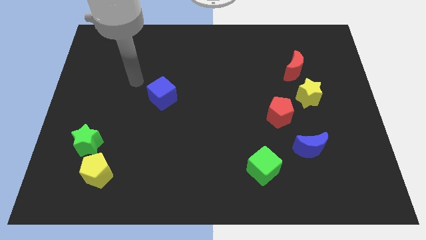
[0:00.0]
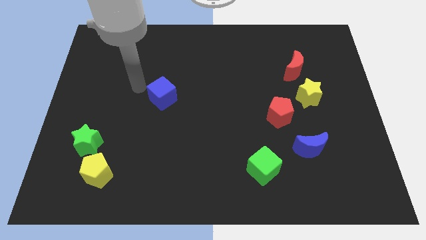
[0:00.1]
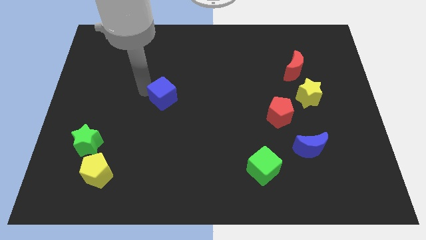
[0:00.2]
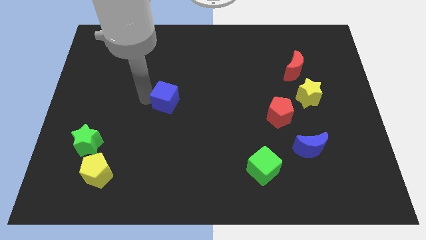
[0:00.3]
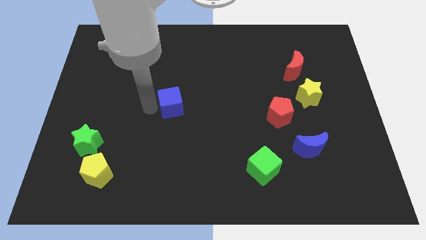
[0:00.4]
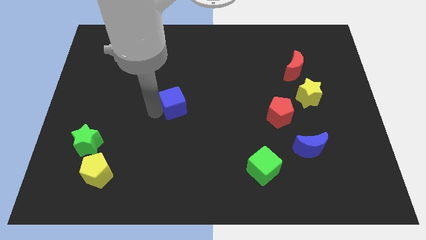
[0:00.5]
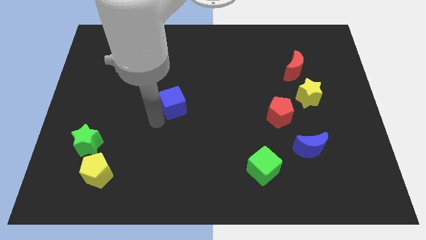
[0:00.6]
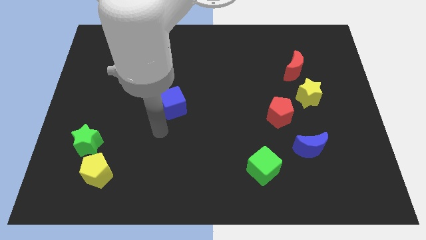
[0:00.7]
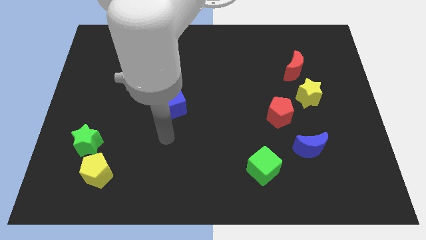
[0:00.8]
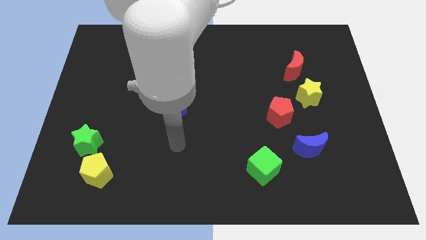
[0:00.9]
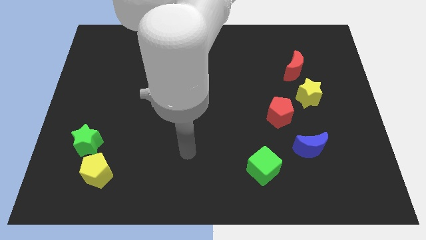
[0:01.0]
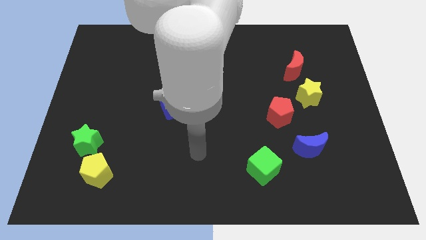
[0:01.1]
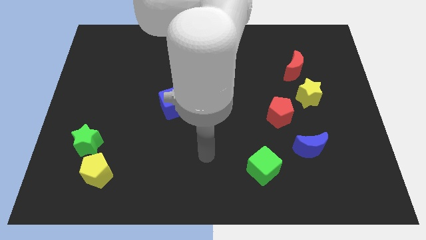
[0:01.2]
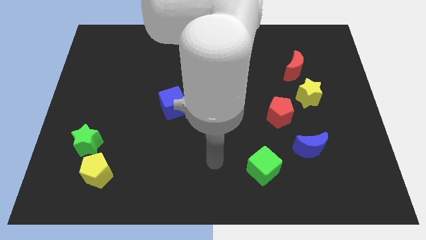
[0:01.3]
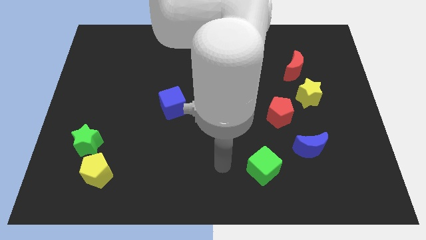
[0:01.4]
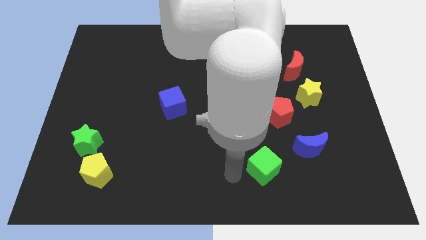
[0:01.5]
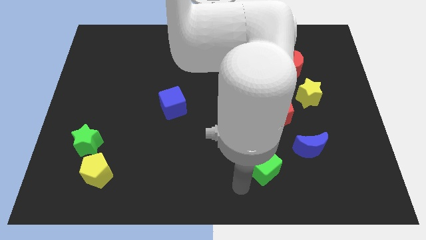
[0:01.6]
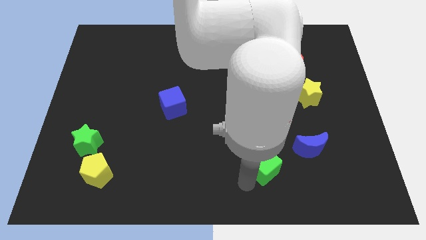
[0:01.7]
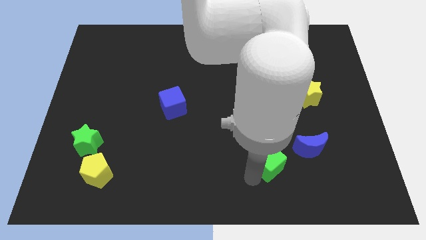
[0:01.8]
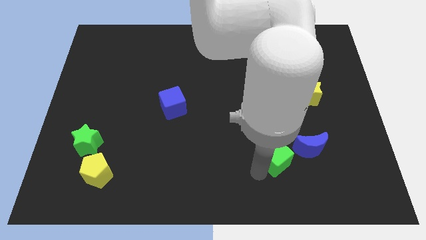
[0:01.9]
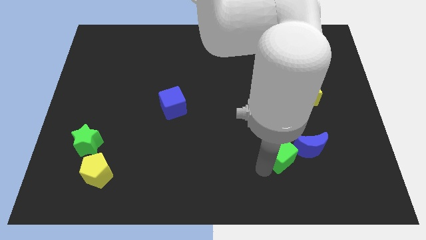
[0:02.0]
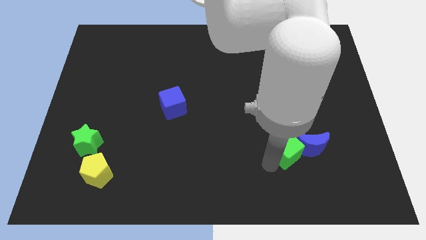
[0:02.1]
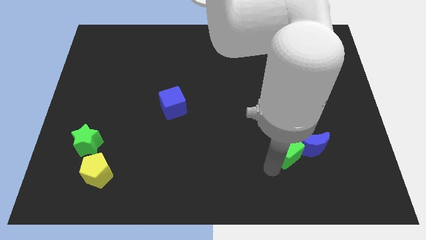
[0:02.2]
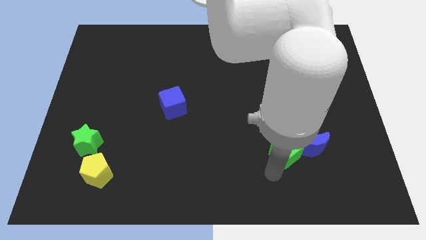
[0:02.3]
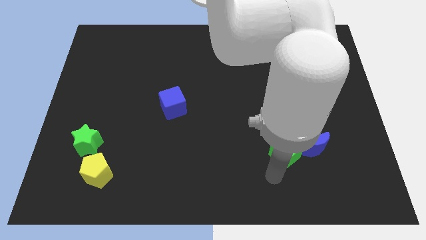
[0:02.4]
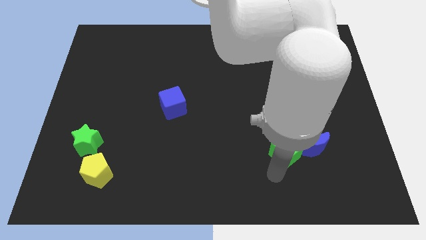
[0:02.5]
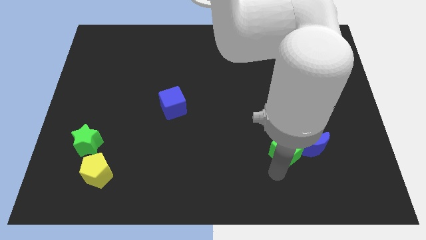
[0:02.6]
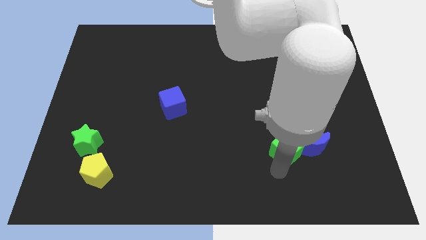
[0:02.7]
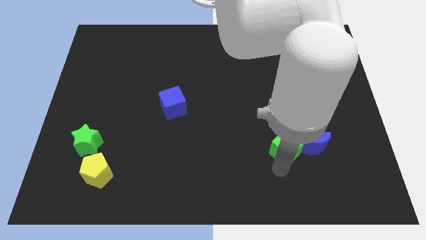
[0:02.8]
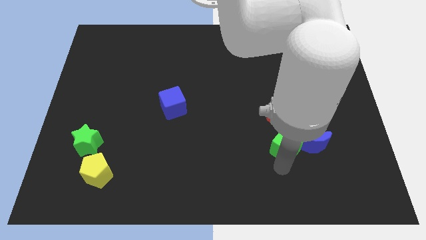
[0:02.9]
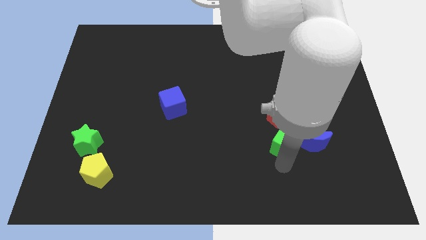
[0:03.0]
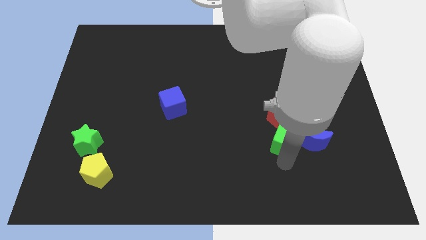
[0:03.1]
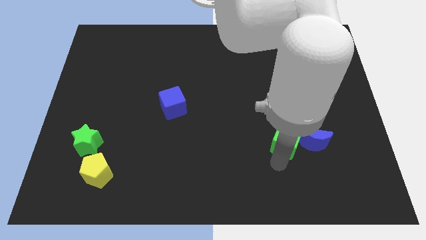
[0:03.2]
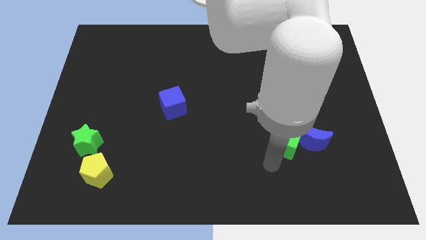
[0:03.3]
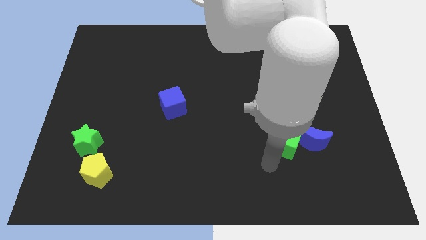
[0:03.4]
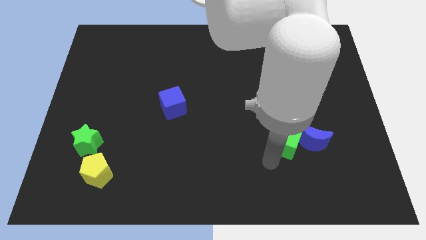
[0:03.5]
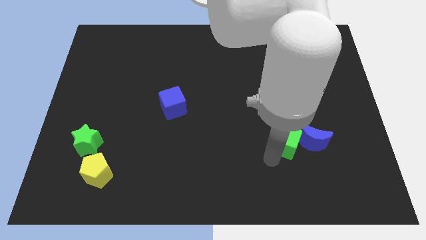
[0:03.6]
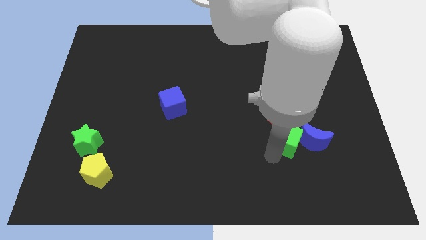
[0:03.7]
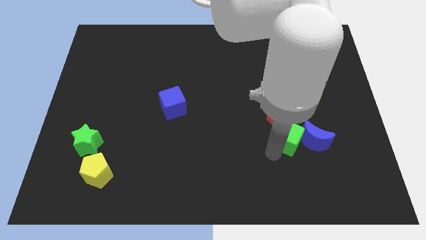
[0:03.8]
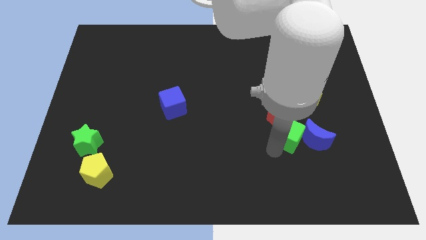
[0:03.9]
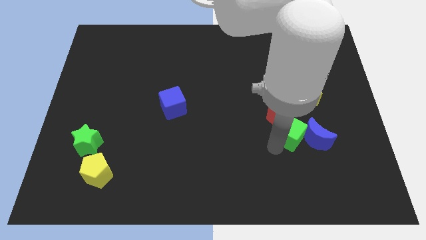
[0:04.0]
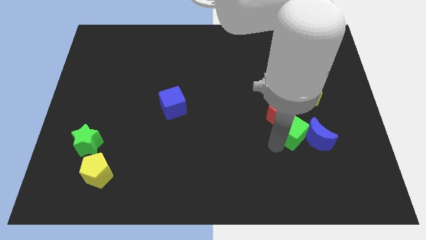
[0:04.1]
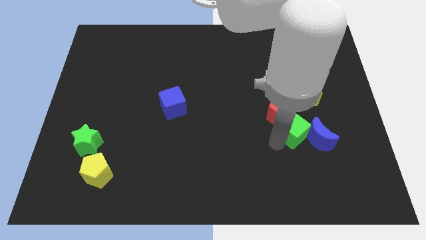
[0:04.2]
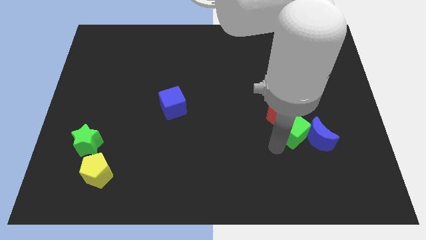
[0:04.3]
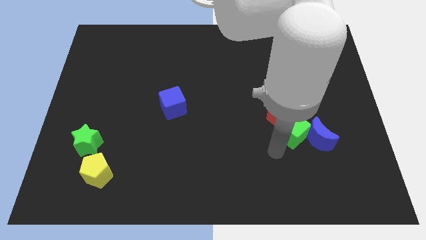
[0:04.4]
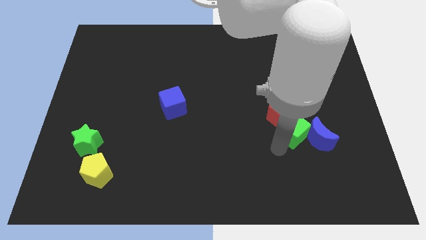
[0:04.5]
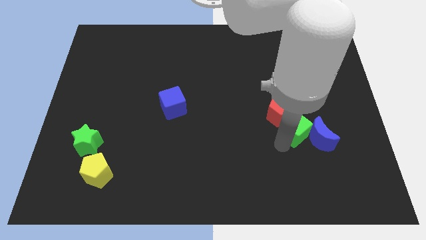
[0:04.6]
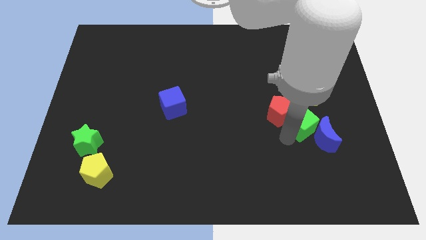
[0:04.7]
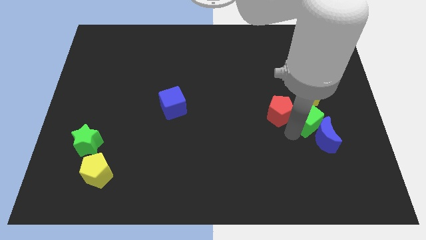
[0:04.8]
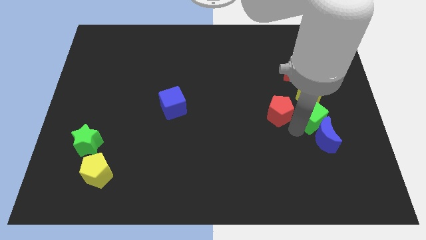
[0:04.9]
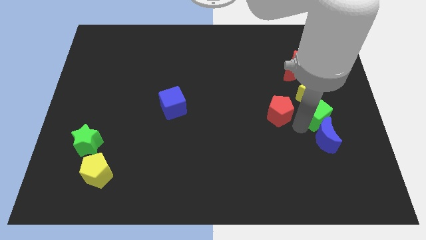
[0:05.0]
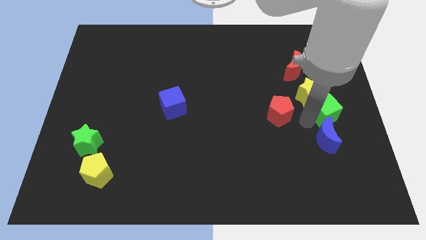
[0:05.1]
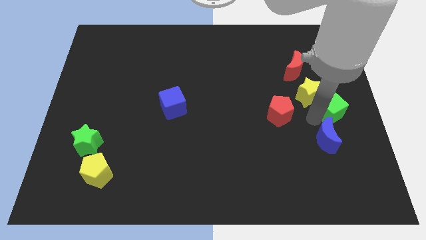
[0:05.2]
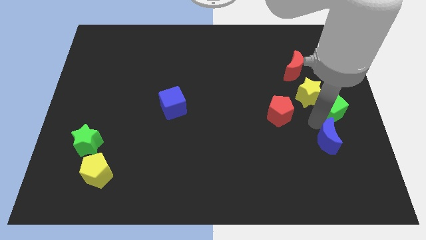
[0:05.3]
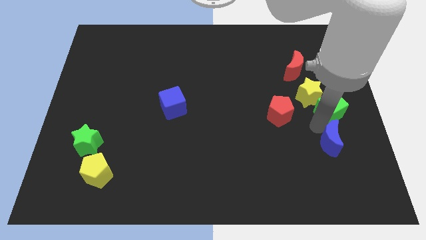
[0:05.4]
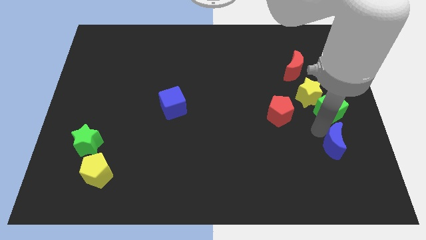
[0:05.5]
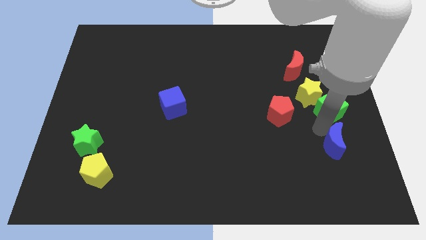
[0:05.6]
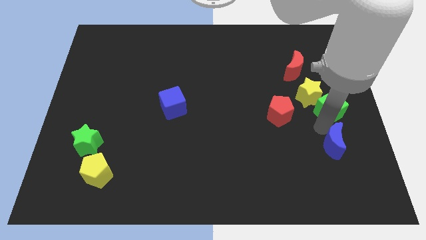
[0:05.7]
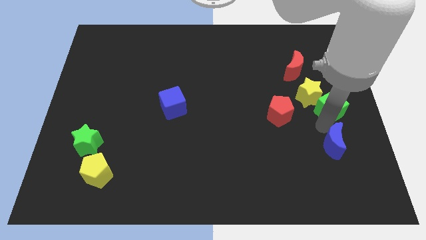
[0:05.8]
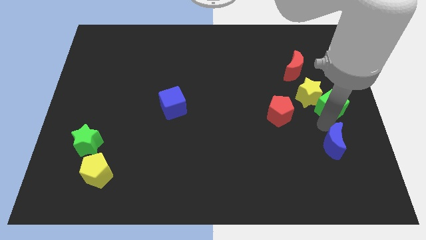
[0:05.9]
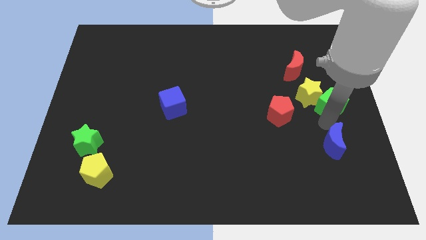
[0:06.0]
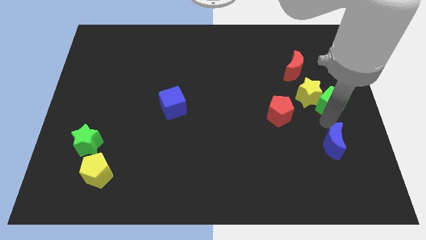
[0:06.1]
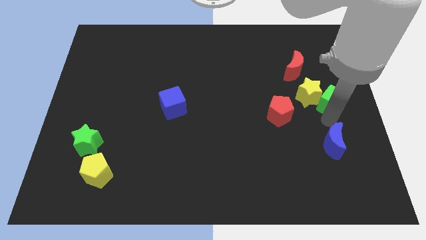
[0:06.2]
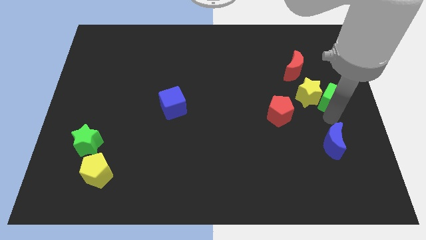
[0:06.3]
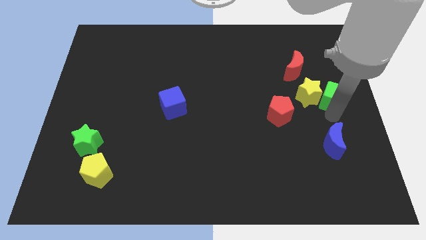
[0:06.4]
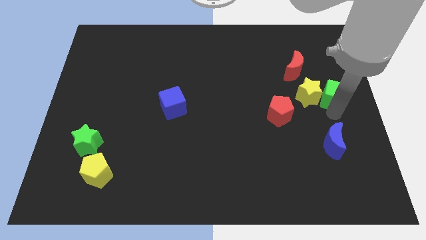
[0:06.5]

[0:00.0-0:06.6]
push the green cube diagonally up and to the right of the yellow star
